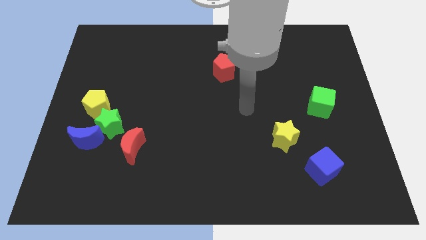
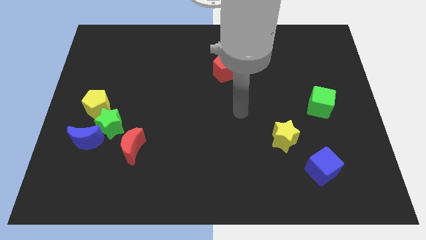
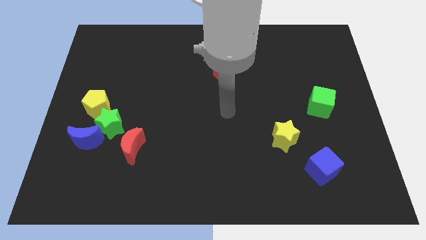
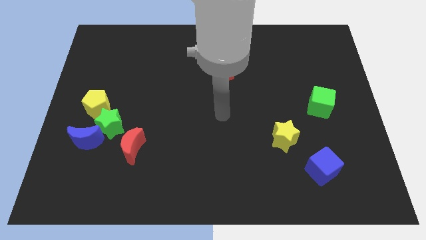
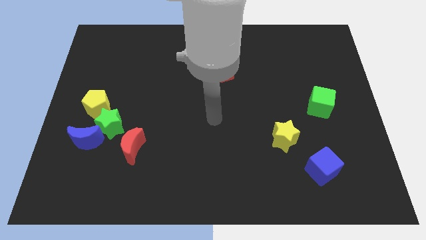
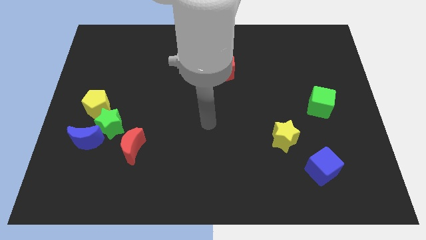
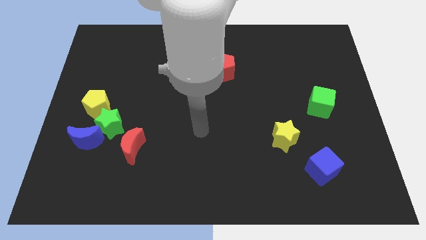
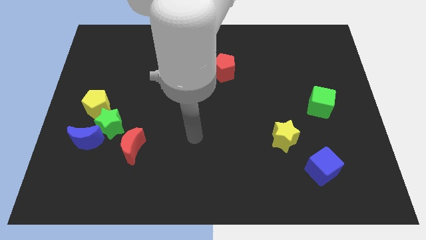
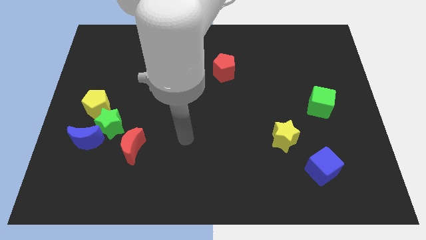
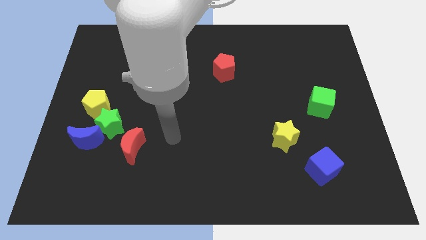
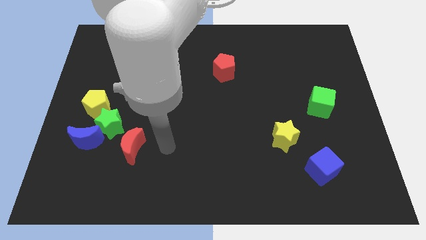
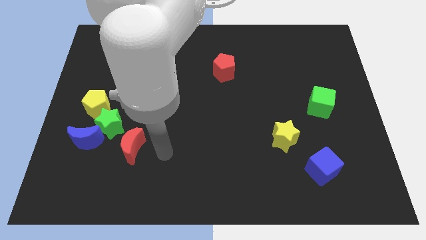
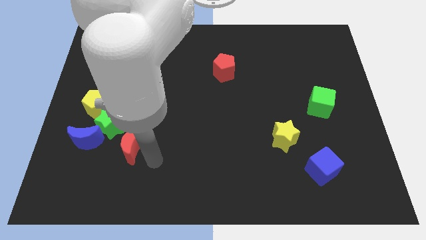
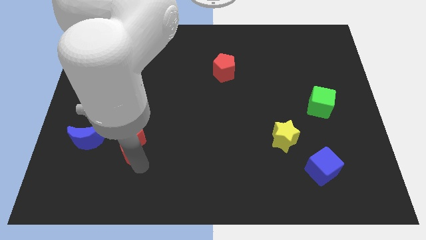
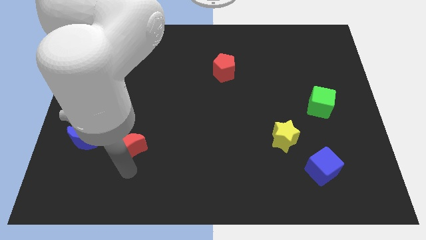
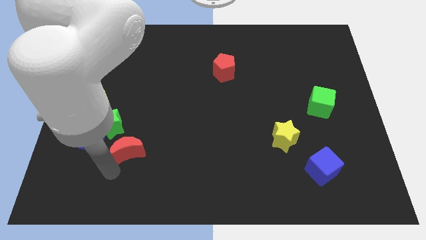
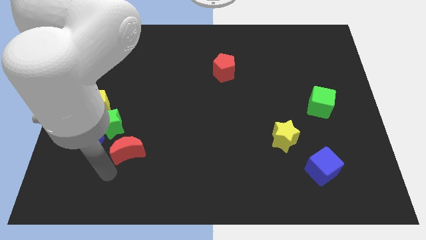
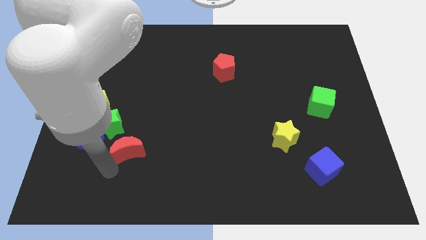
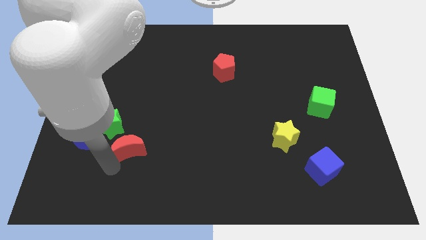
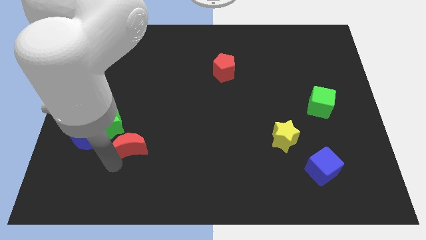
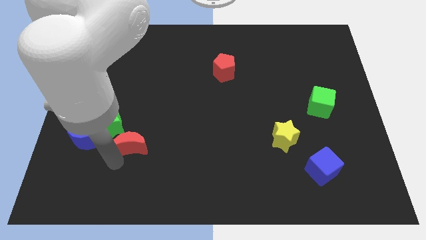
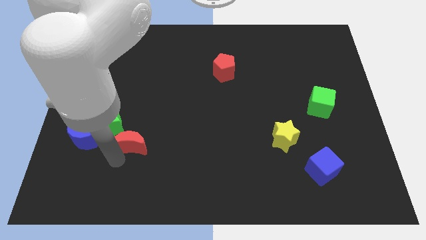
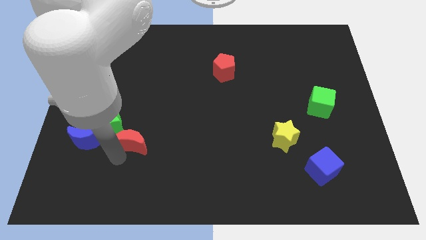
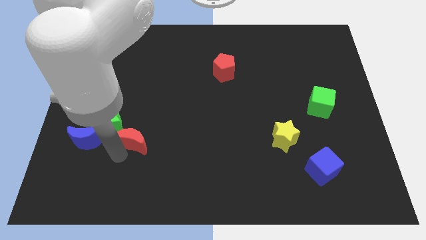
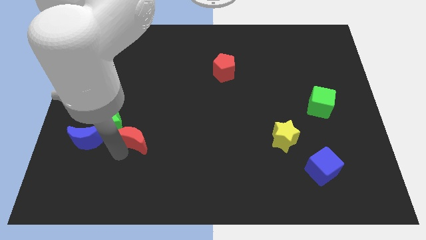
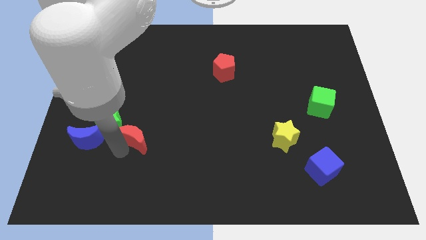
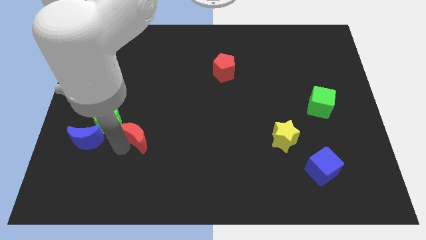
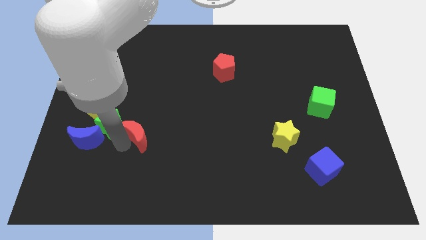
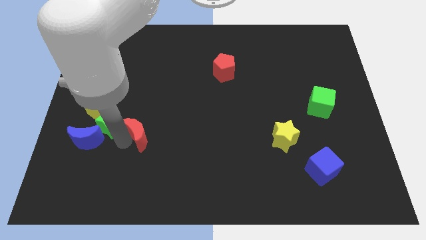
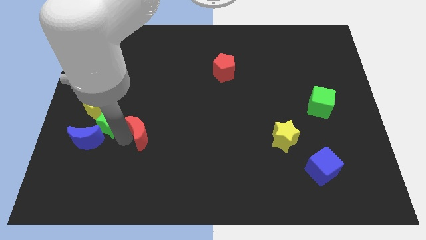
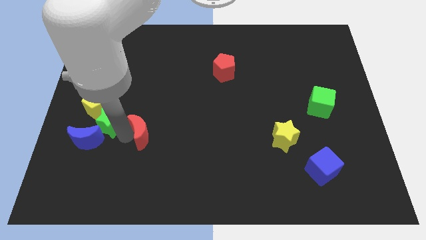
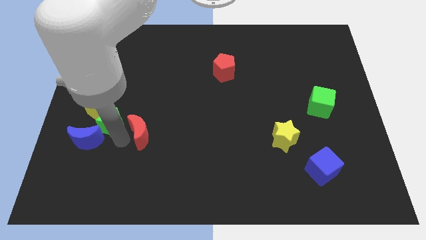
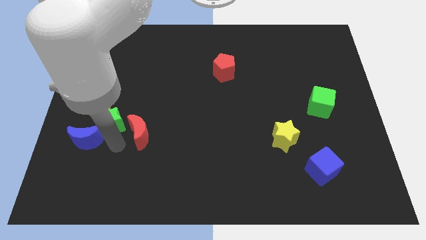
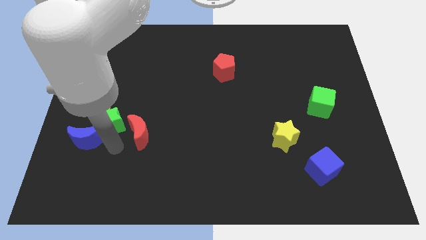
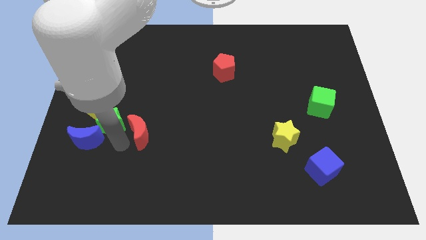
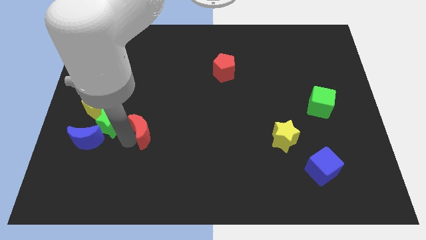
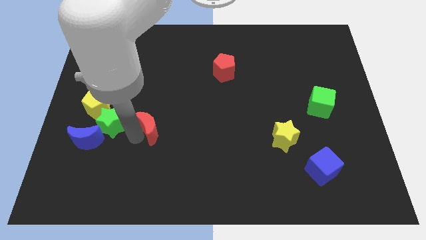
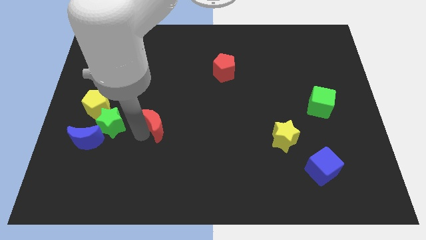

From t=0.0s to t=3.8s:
slightly slide the red moon upwards and to the right diagonally

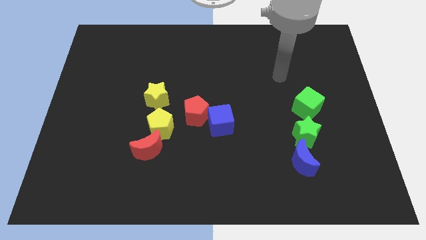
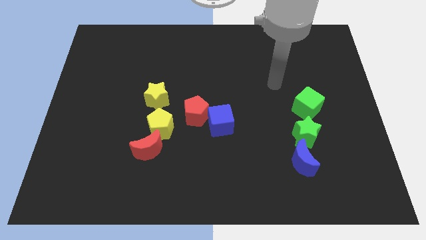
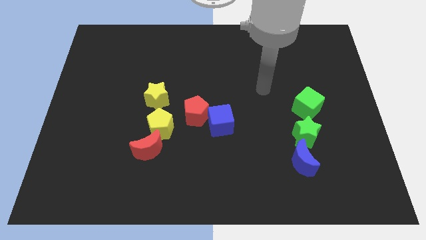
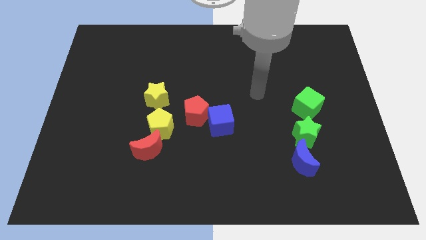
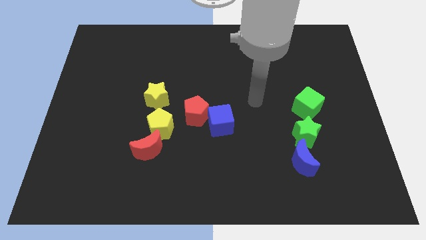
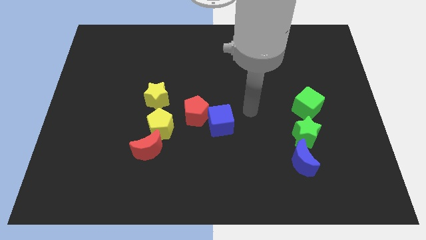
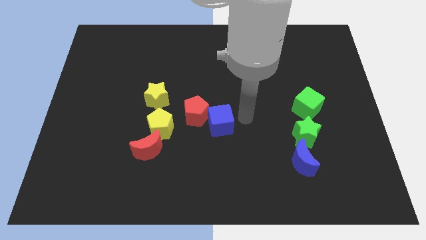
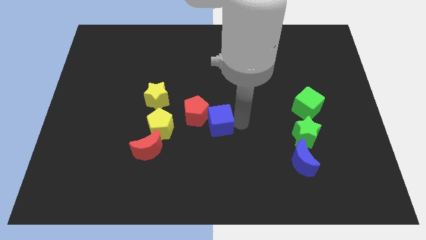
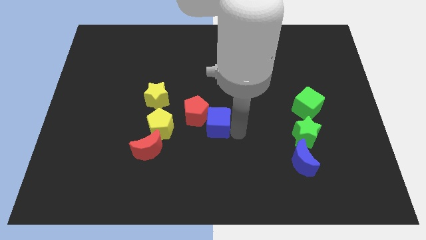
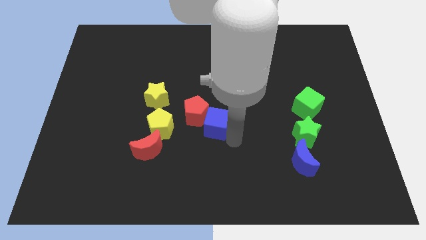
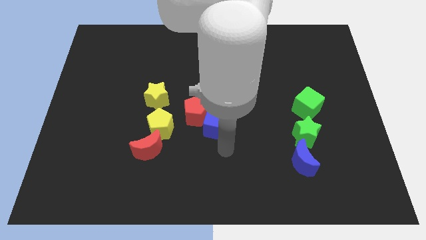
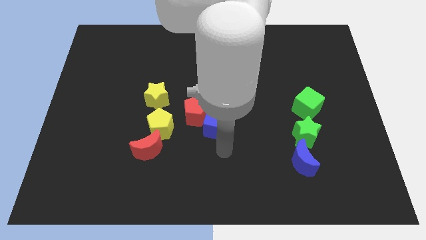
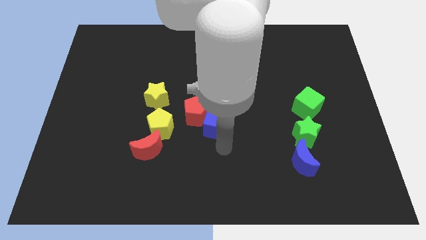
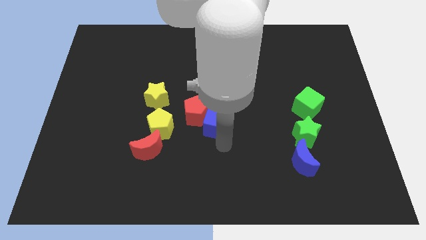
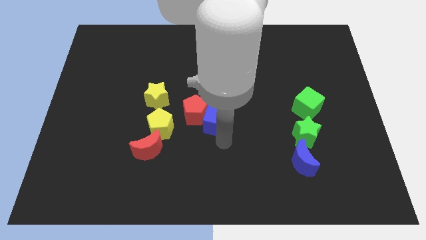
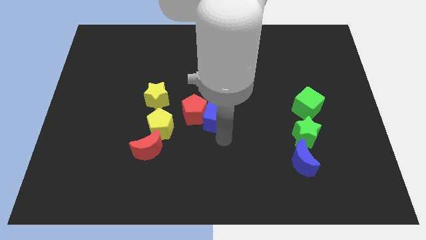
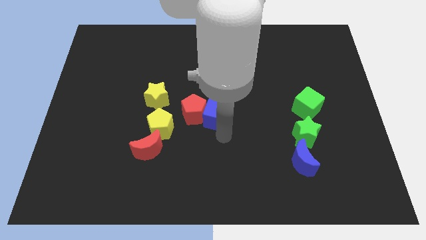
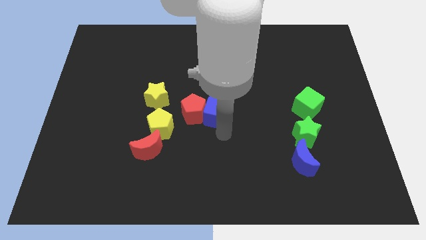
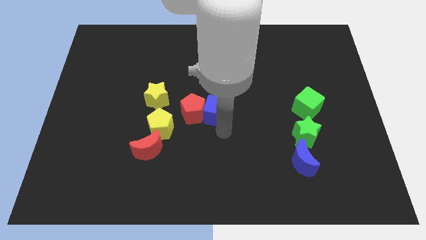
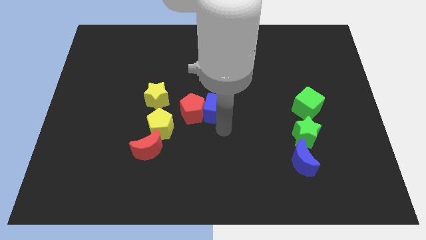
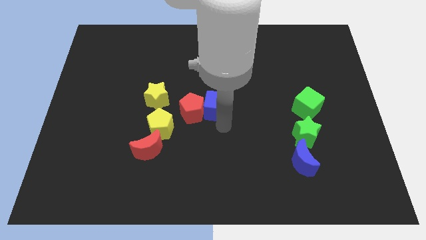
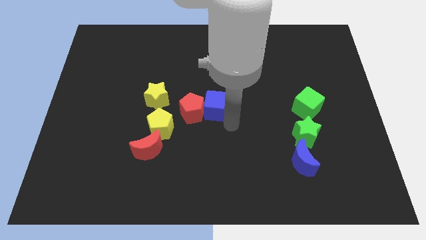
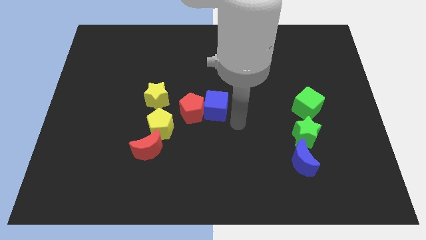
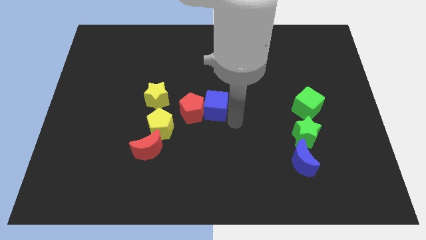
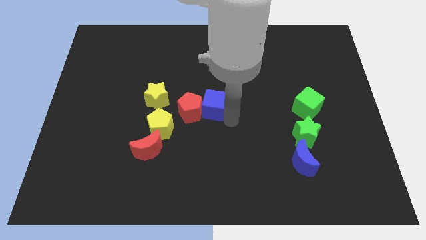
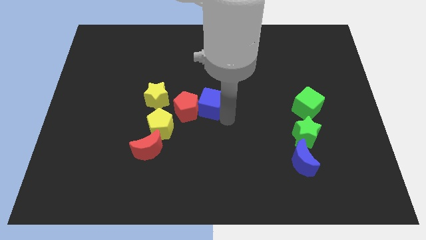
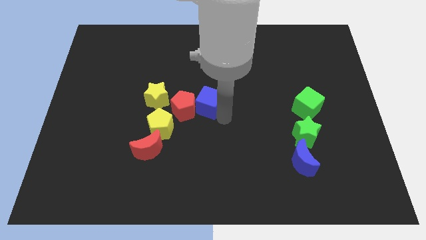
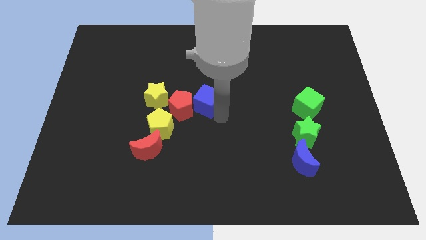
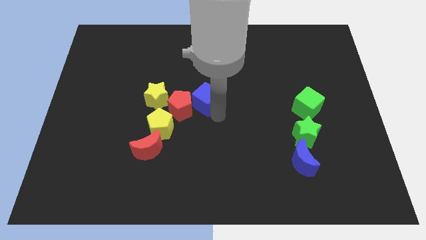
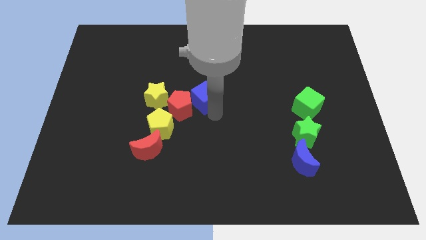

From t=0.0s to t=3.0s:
slightly slide the blue cube up and left

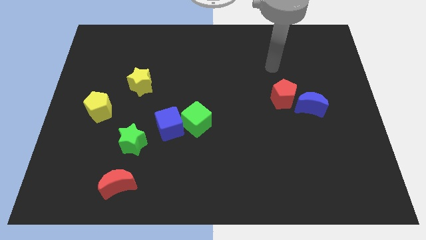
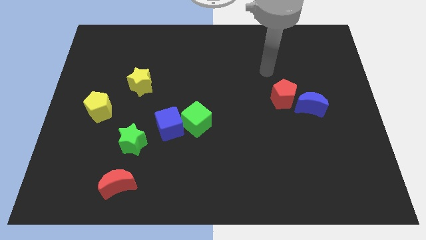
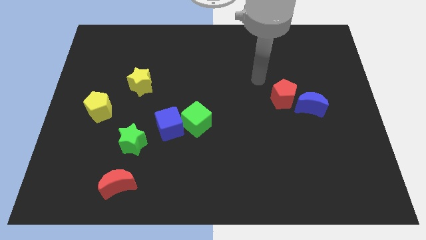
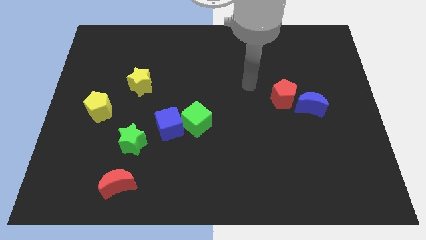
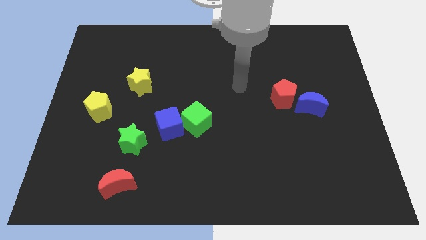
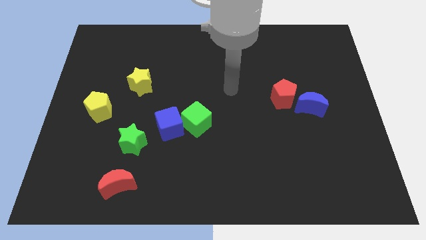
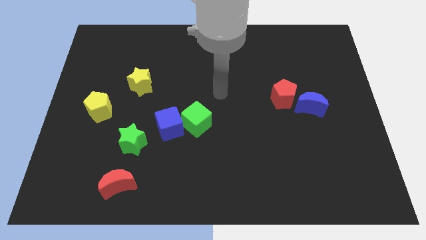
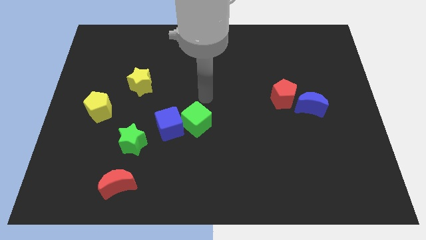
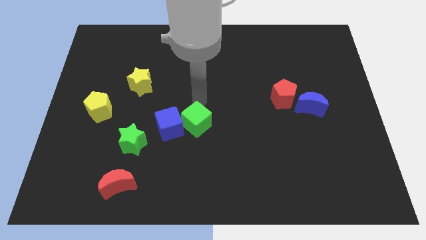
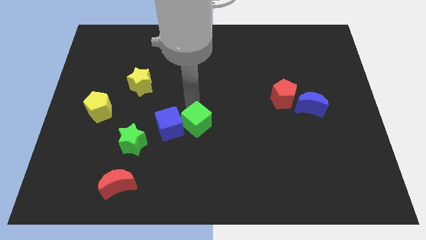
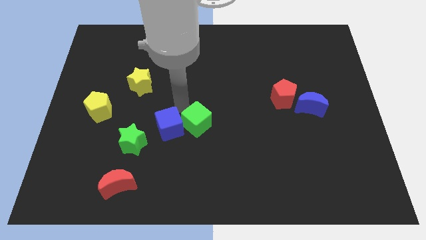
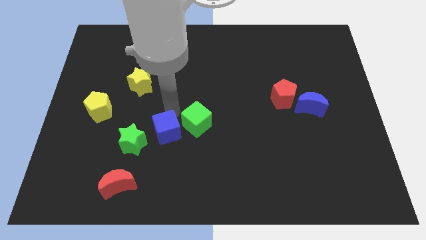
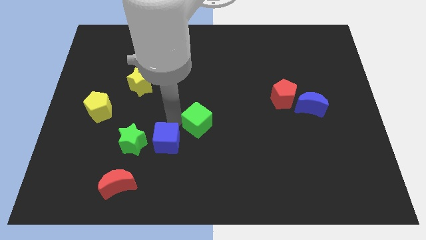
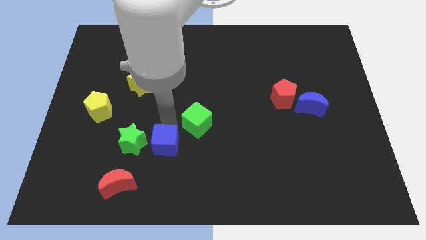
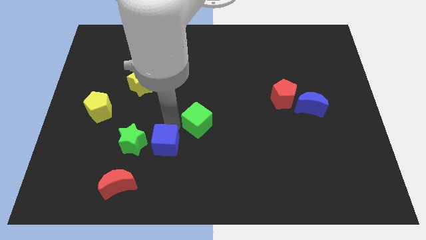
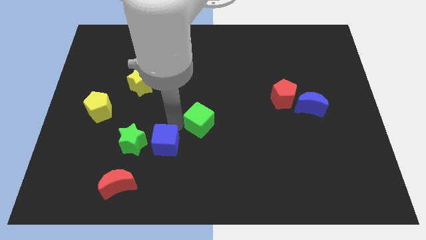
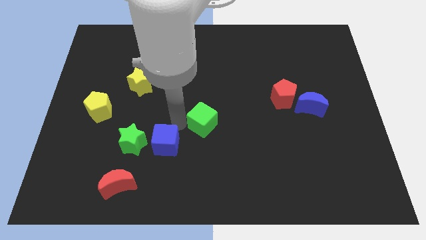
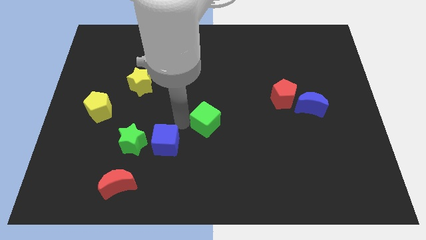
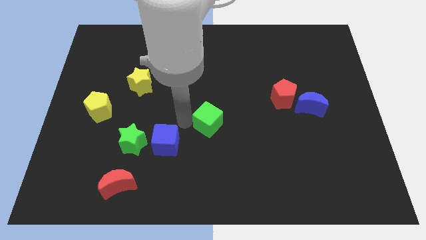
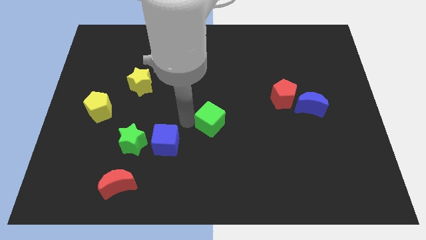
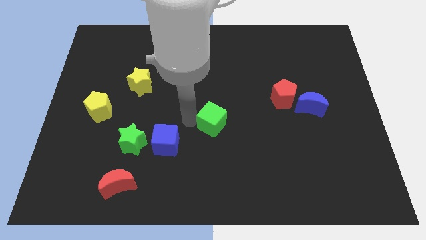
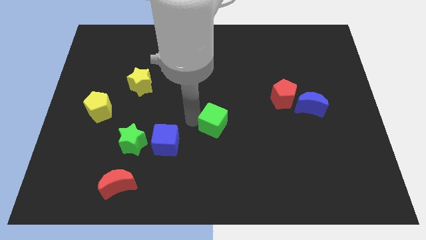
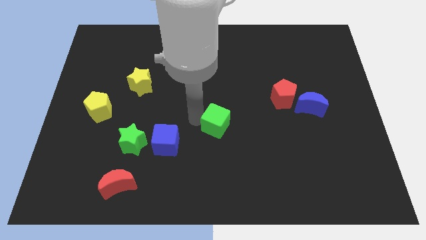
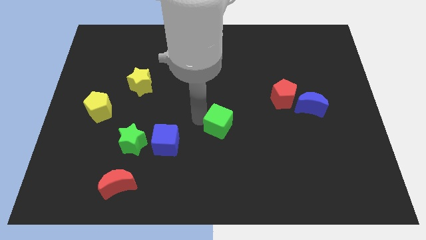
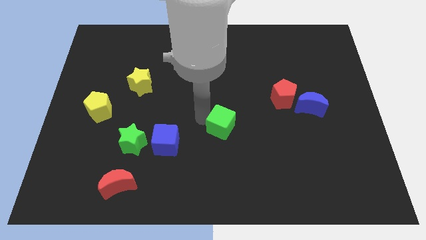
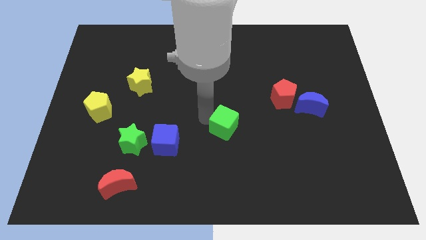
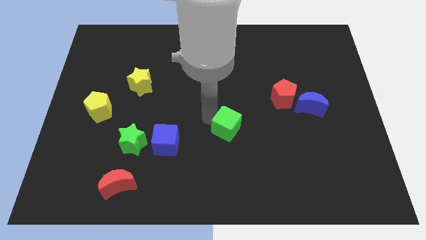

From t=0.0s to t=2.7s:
move the green cube somewhat to the right
